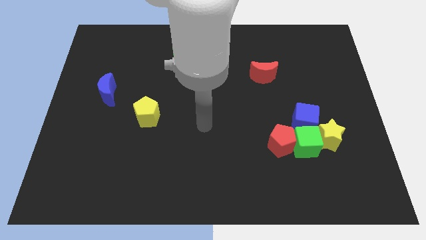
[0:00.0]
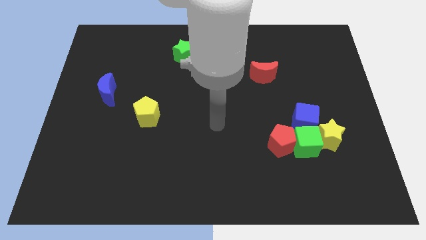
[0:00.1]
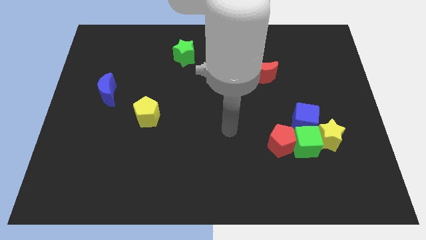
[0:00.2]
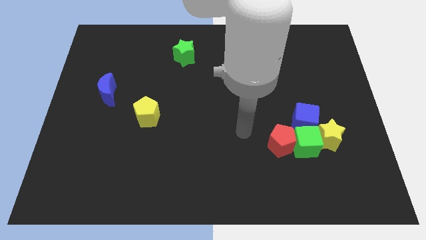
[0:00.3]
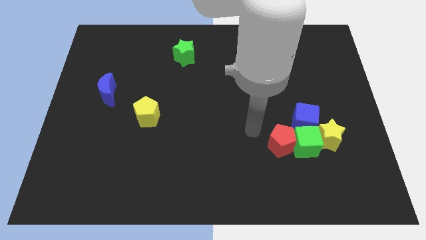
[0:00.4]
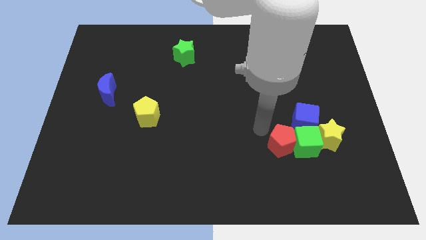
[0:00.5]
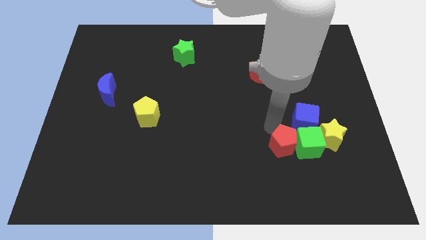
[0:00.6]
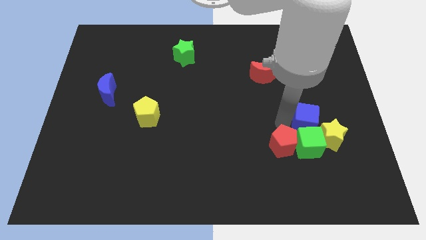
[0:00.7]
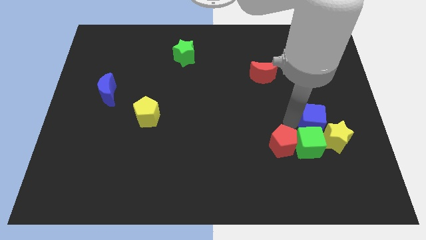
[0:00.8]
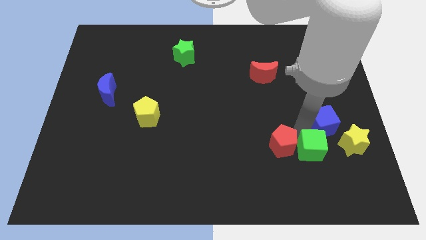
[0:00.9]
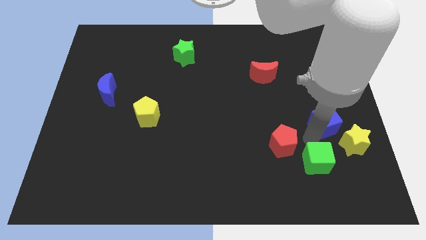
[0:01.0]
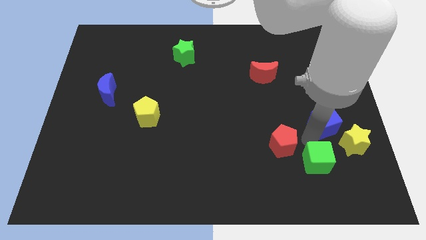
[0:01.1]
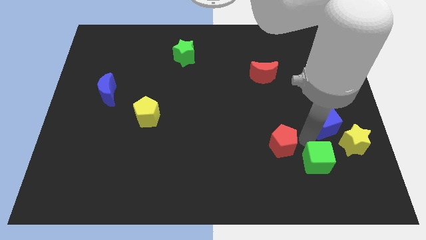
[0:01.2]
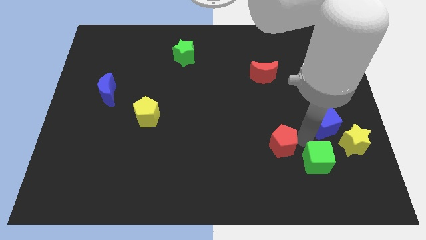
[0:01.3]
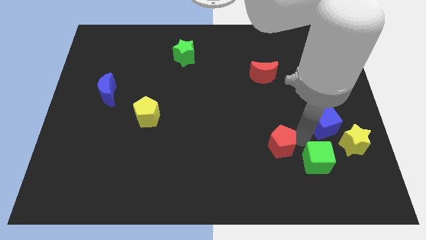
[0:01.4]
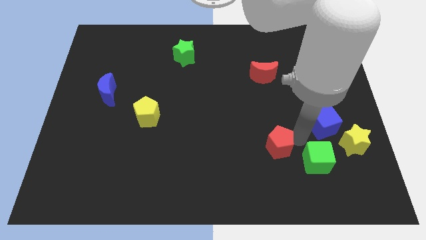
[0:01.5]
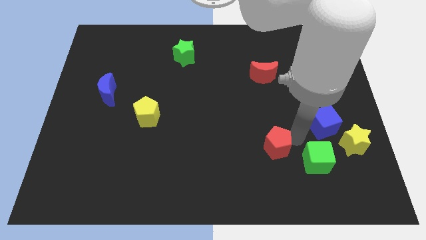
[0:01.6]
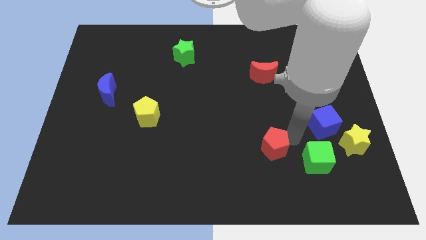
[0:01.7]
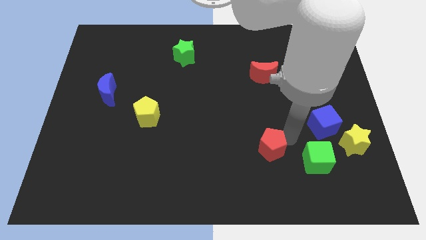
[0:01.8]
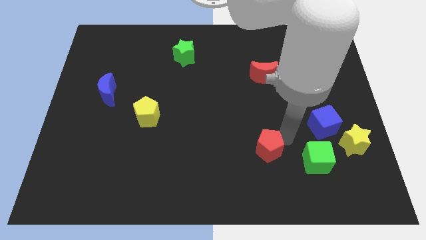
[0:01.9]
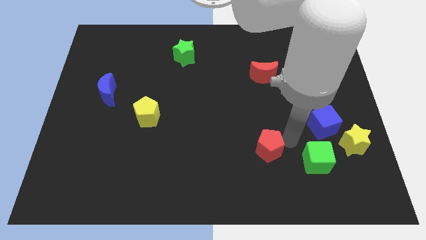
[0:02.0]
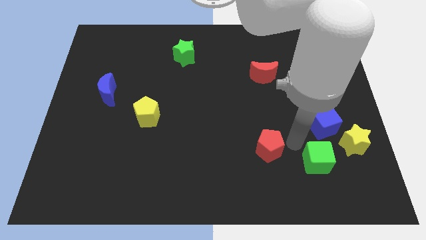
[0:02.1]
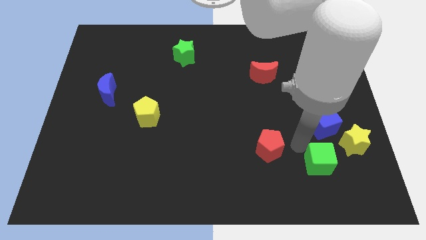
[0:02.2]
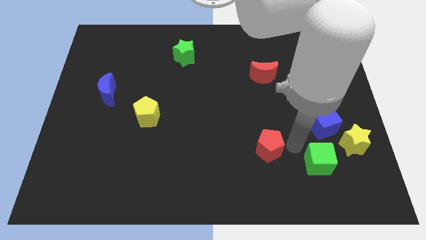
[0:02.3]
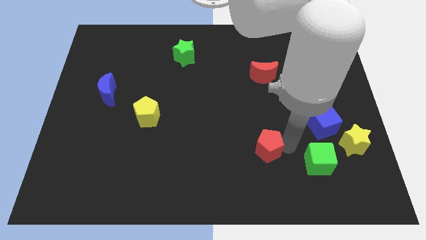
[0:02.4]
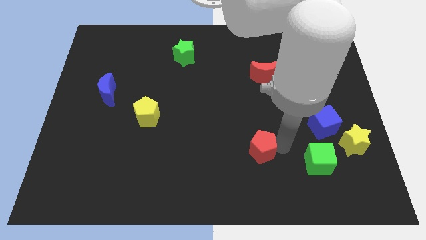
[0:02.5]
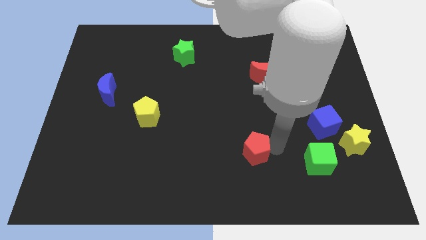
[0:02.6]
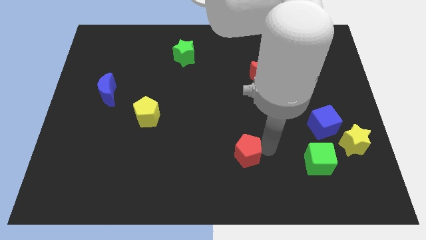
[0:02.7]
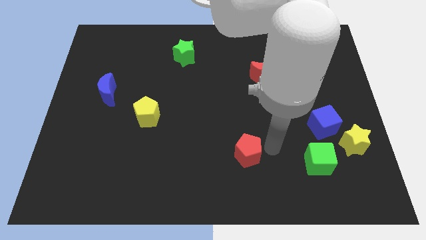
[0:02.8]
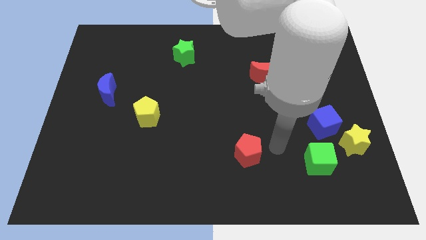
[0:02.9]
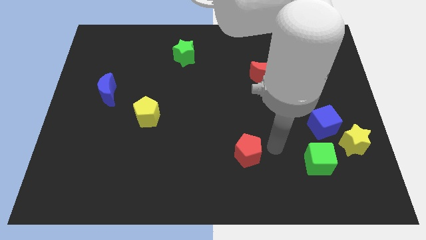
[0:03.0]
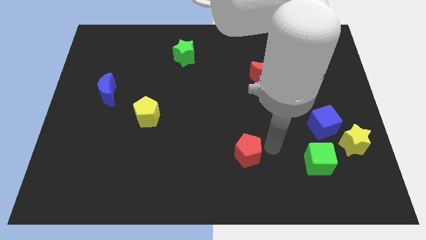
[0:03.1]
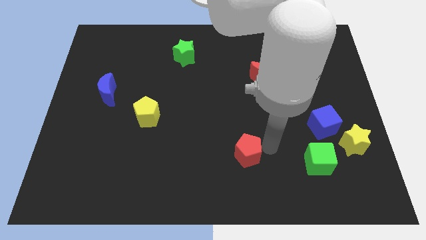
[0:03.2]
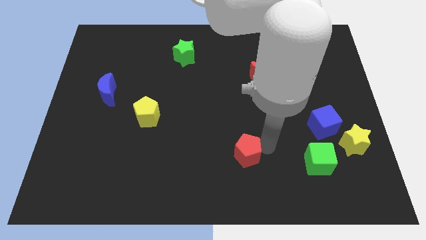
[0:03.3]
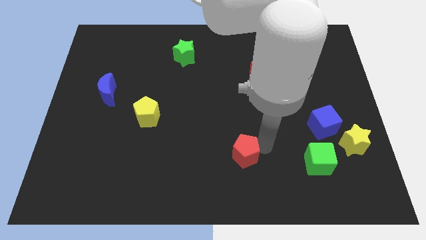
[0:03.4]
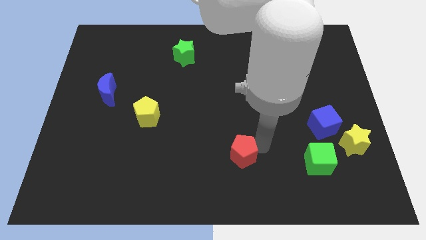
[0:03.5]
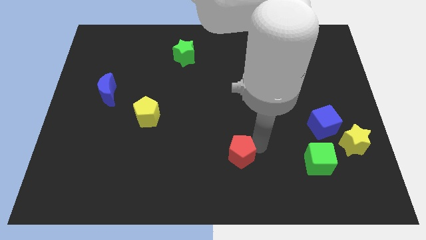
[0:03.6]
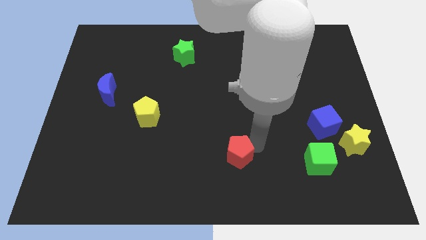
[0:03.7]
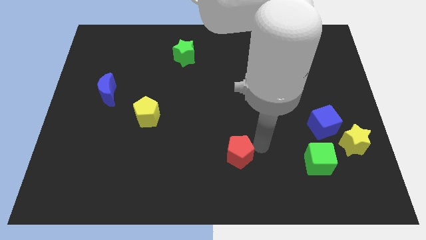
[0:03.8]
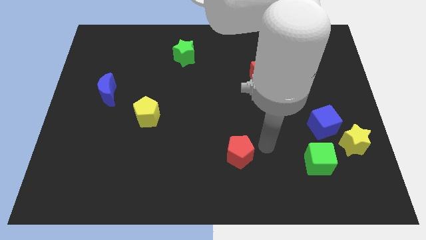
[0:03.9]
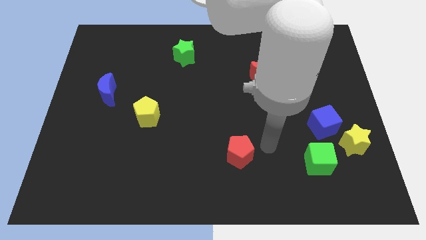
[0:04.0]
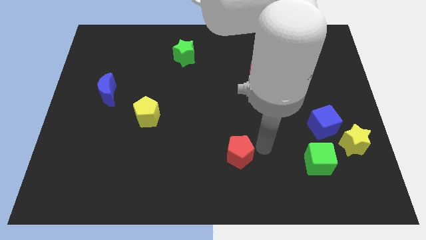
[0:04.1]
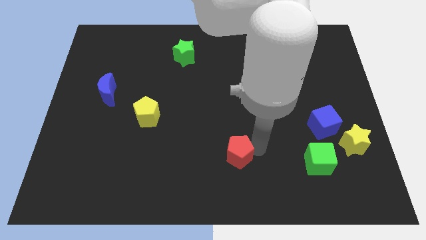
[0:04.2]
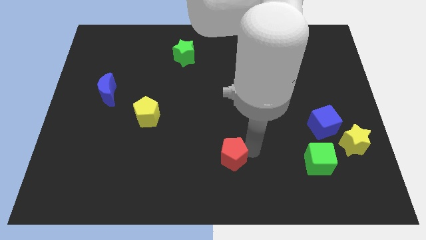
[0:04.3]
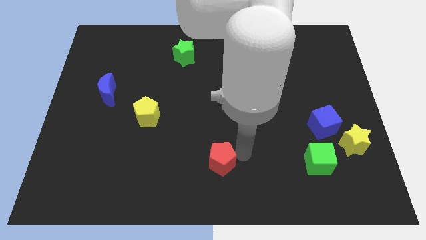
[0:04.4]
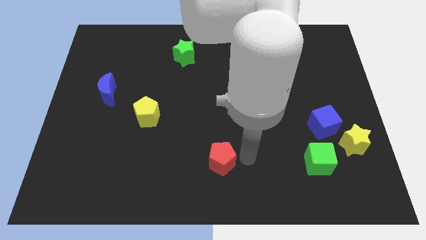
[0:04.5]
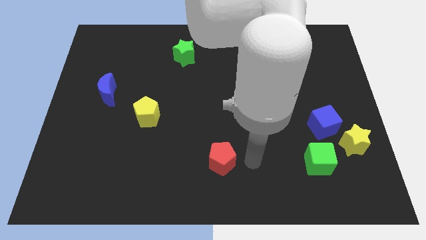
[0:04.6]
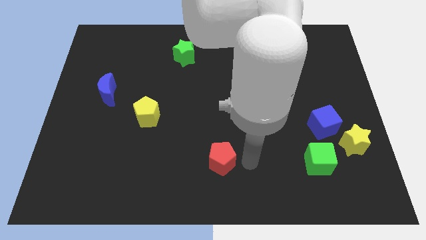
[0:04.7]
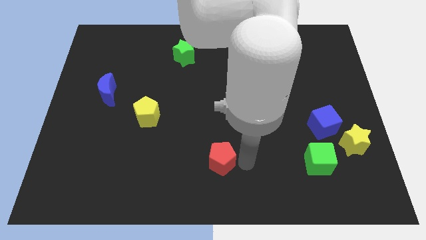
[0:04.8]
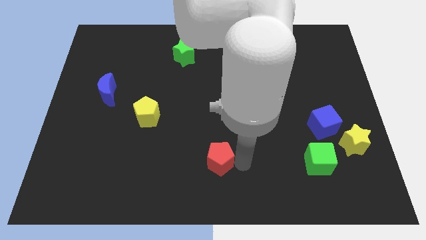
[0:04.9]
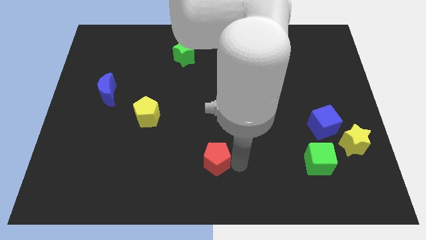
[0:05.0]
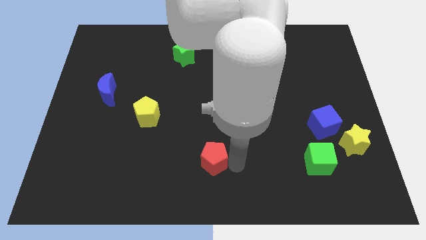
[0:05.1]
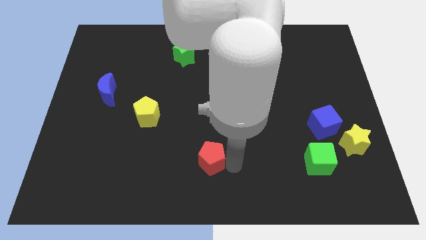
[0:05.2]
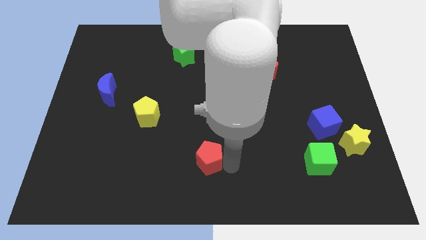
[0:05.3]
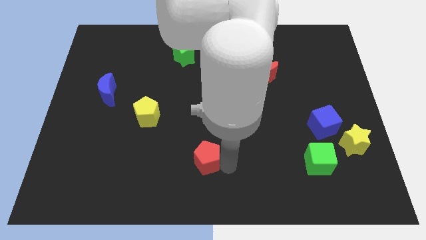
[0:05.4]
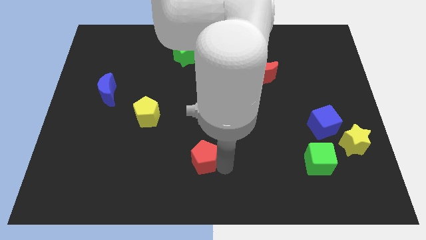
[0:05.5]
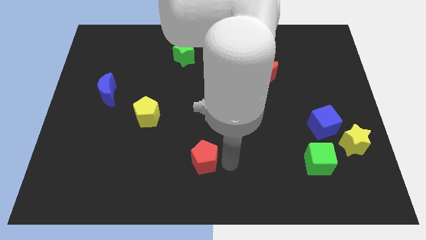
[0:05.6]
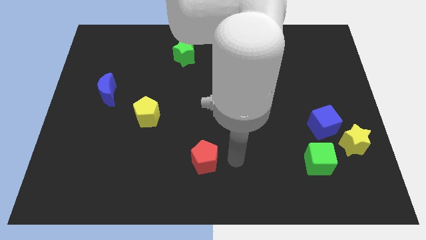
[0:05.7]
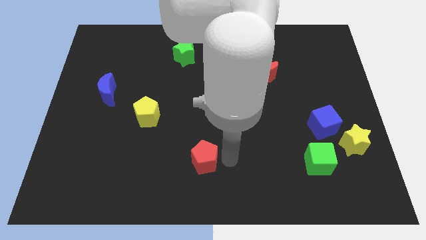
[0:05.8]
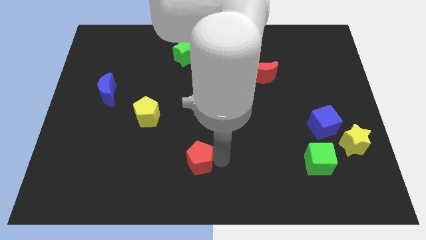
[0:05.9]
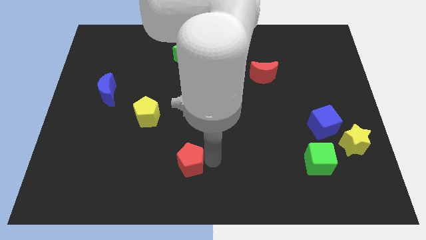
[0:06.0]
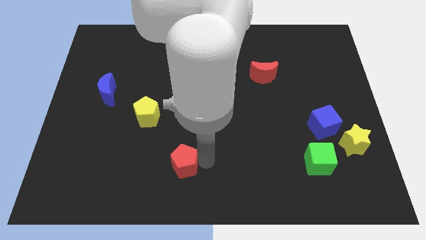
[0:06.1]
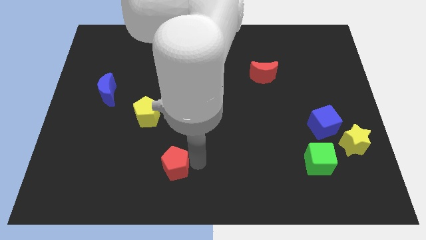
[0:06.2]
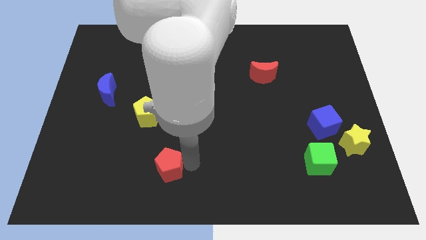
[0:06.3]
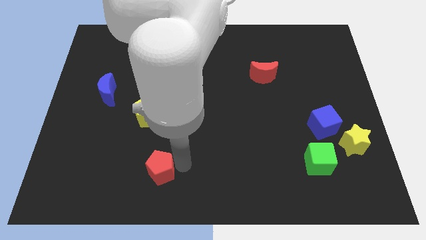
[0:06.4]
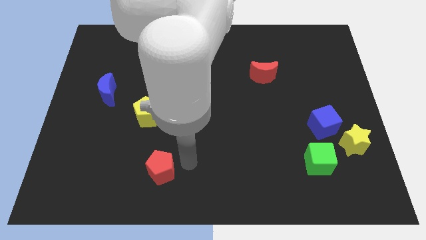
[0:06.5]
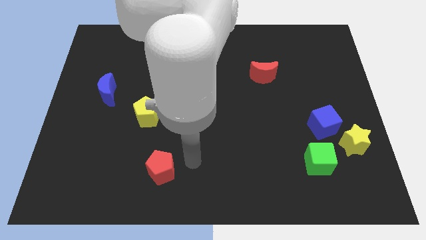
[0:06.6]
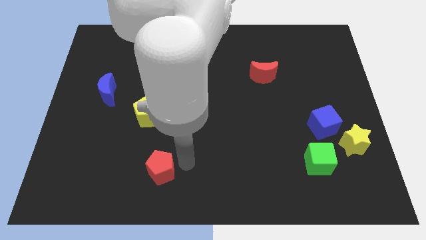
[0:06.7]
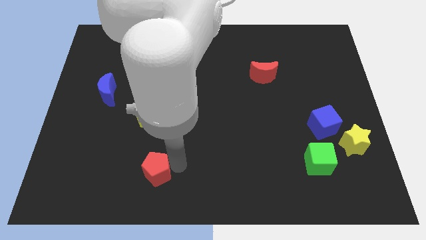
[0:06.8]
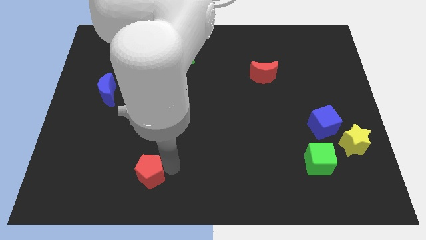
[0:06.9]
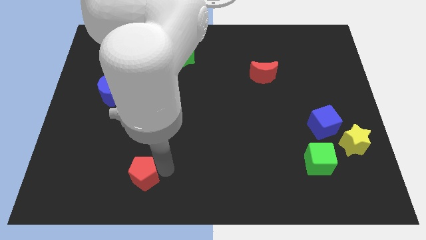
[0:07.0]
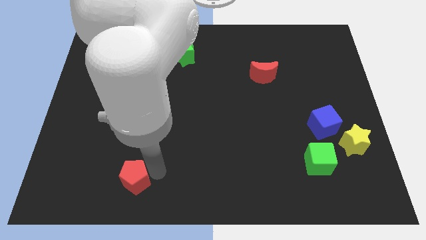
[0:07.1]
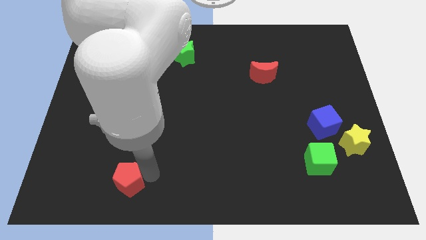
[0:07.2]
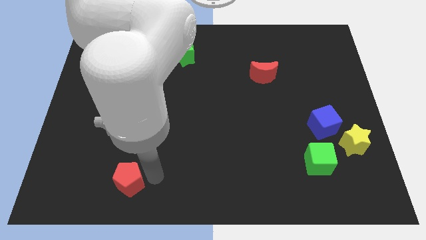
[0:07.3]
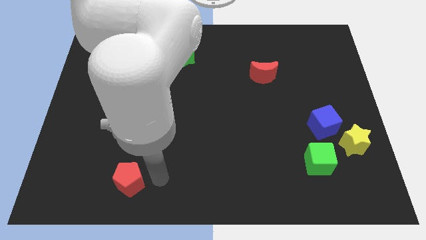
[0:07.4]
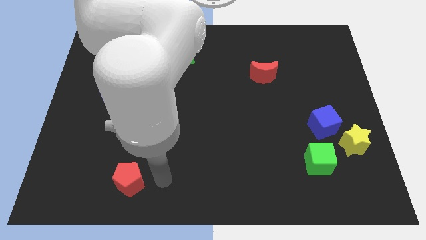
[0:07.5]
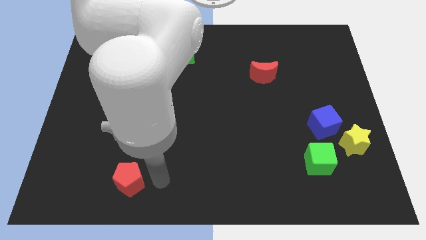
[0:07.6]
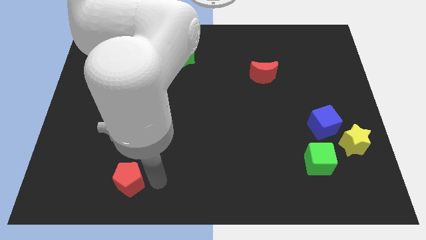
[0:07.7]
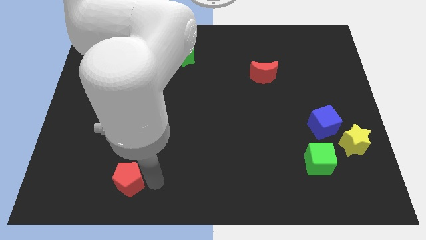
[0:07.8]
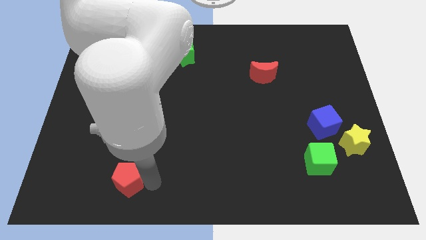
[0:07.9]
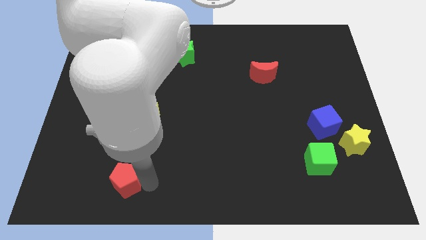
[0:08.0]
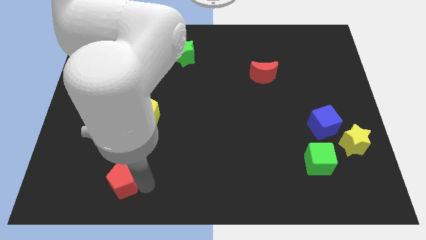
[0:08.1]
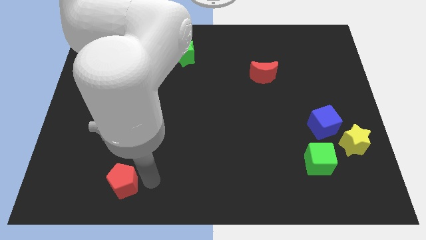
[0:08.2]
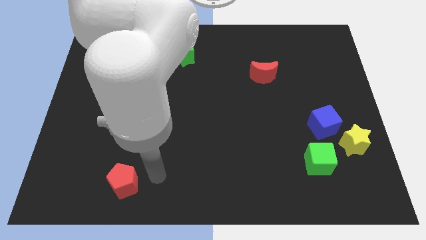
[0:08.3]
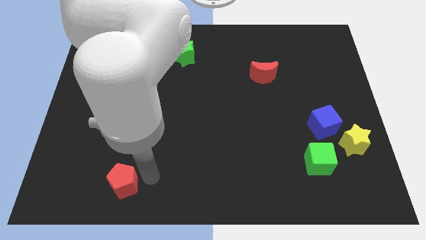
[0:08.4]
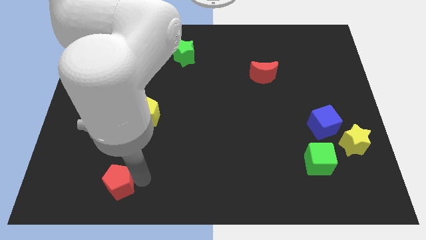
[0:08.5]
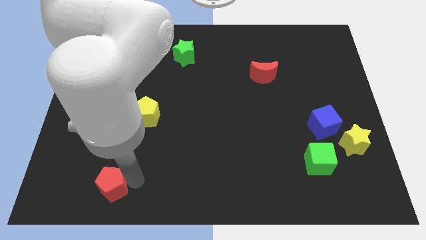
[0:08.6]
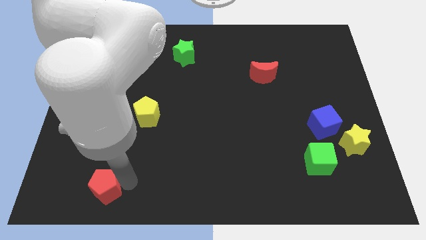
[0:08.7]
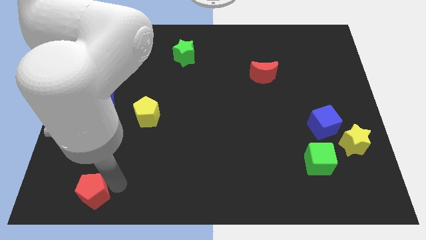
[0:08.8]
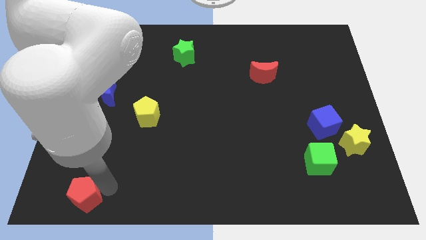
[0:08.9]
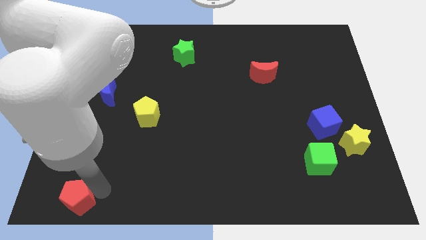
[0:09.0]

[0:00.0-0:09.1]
put the red pentagon to the bottom left of the board
